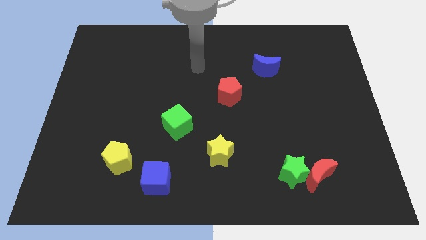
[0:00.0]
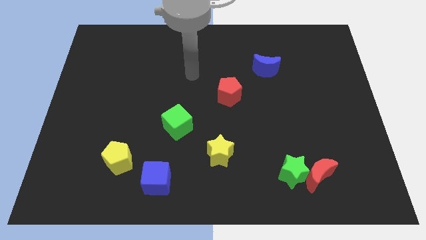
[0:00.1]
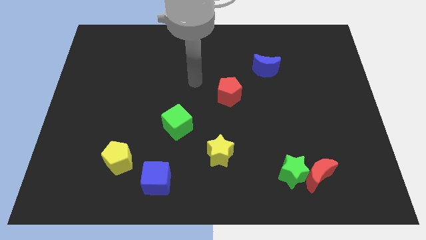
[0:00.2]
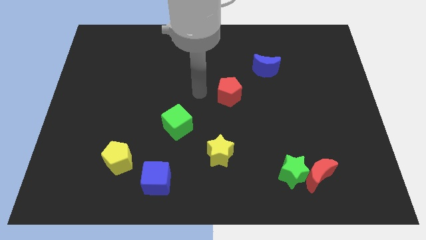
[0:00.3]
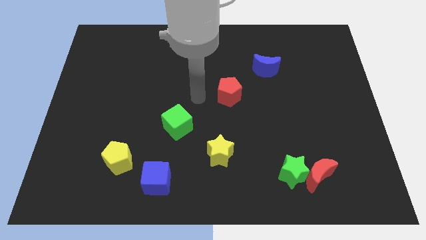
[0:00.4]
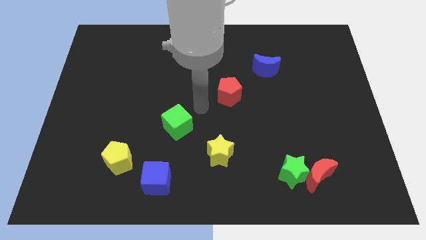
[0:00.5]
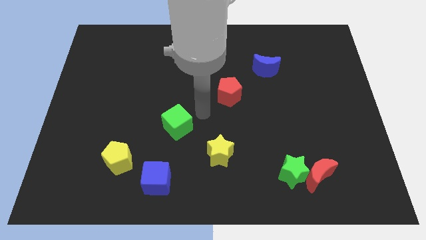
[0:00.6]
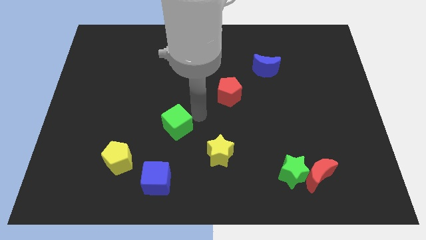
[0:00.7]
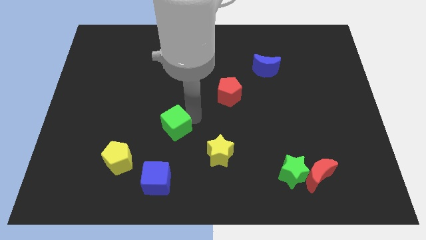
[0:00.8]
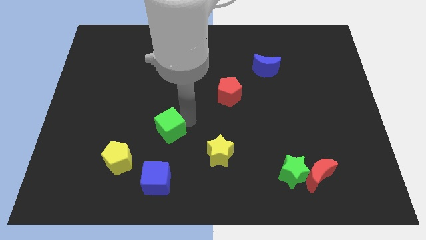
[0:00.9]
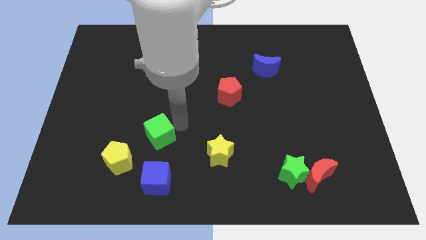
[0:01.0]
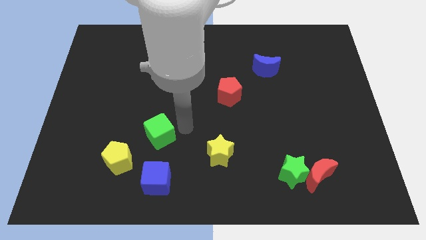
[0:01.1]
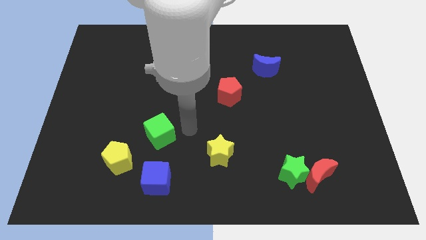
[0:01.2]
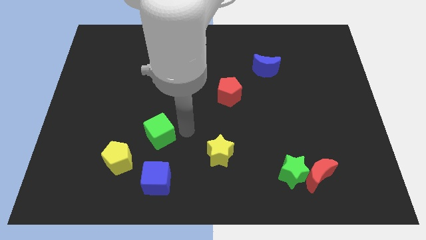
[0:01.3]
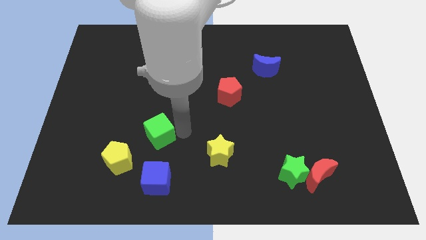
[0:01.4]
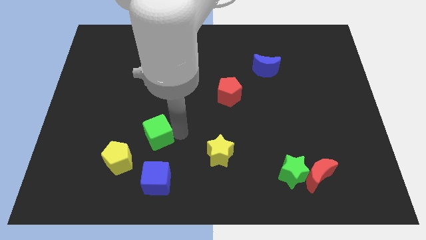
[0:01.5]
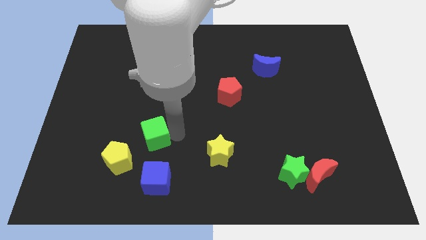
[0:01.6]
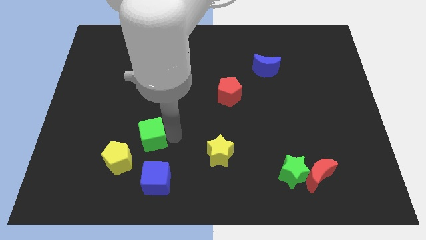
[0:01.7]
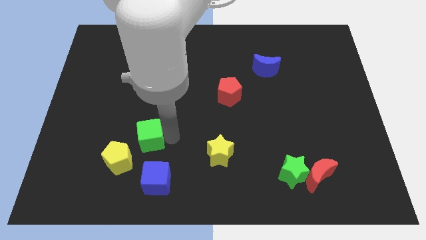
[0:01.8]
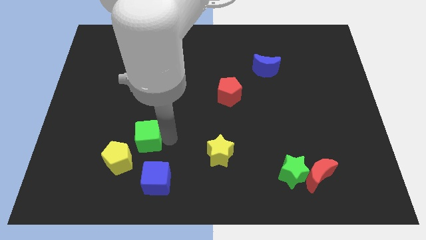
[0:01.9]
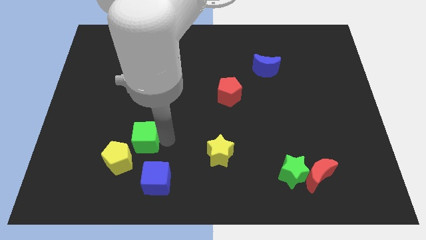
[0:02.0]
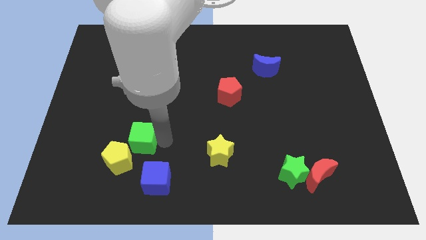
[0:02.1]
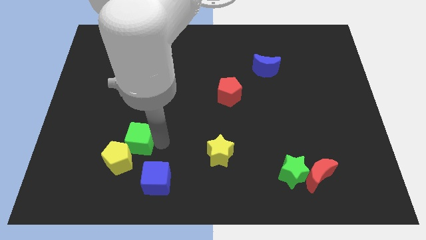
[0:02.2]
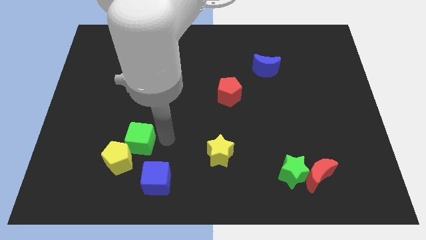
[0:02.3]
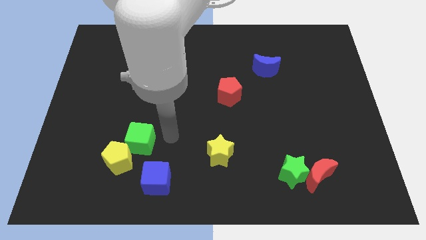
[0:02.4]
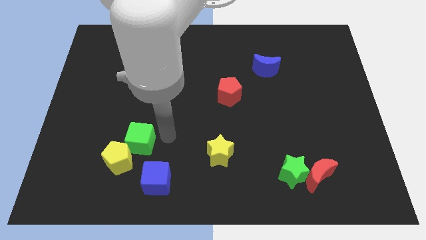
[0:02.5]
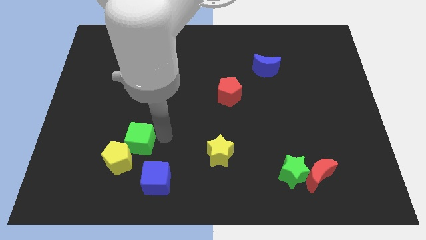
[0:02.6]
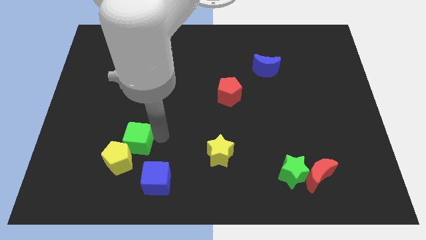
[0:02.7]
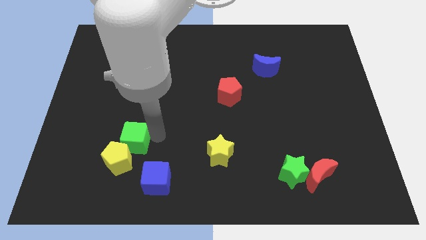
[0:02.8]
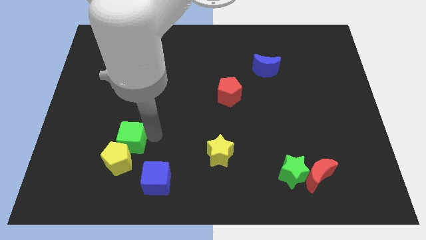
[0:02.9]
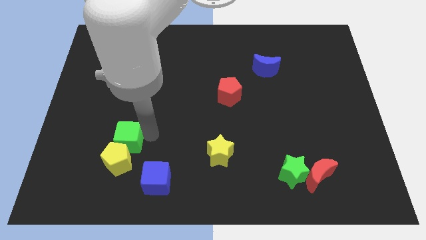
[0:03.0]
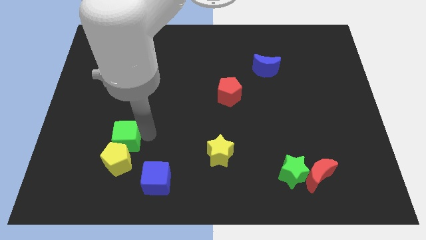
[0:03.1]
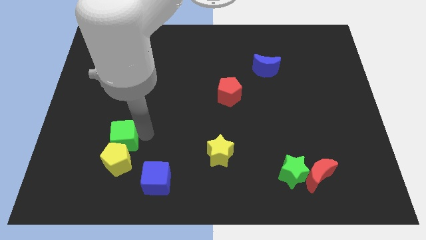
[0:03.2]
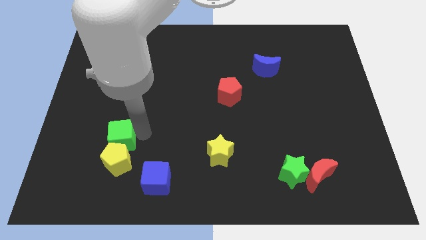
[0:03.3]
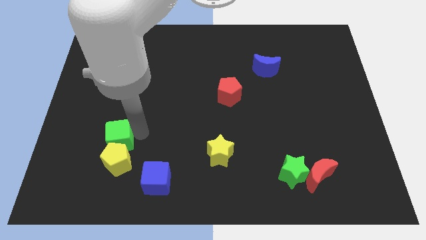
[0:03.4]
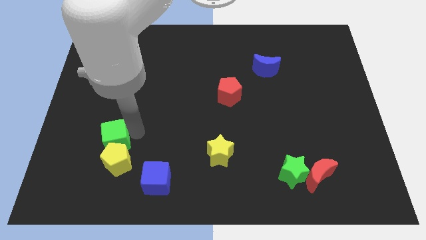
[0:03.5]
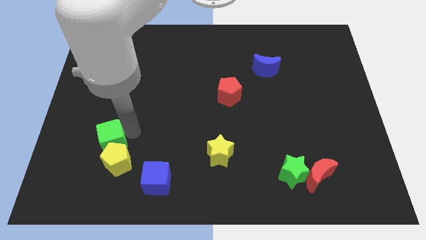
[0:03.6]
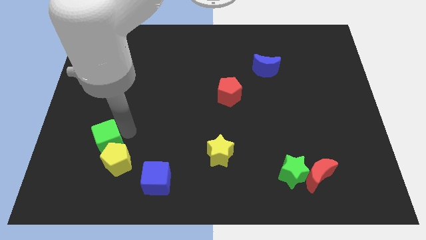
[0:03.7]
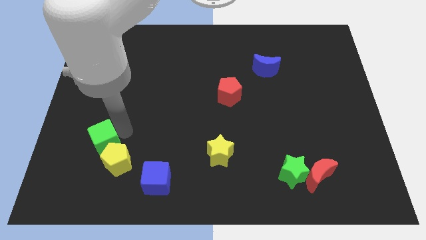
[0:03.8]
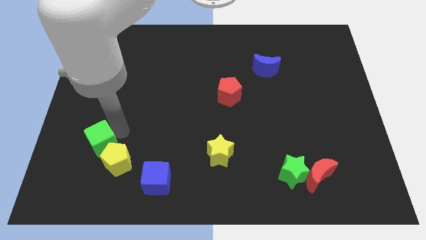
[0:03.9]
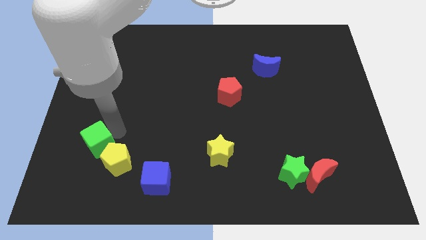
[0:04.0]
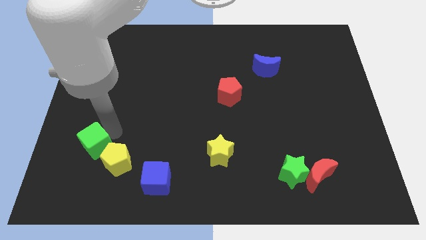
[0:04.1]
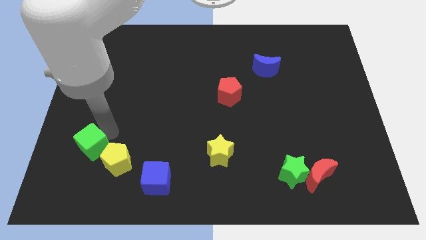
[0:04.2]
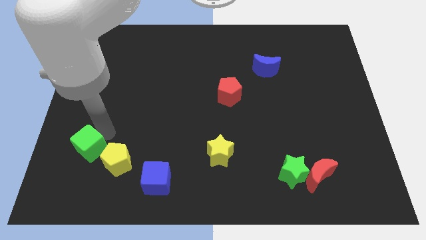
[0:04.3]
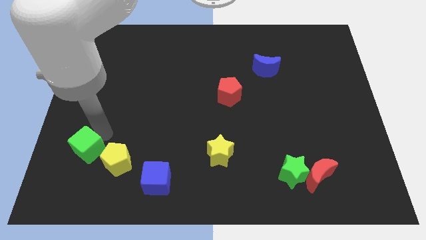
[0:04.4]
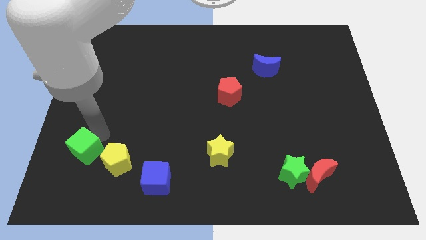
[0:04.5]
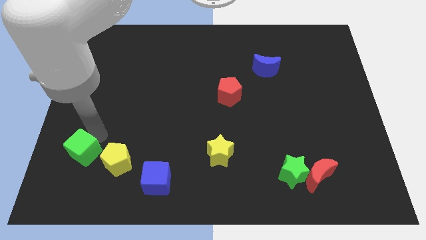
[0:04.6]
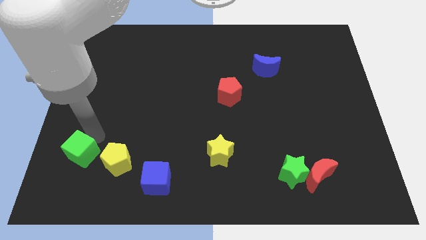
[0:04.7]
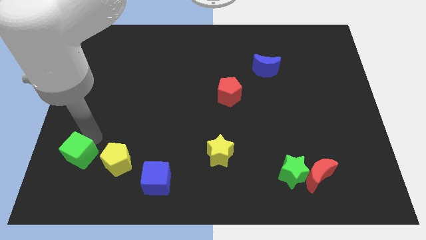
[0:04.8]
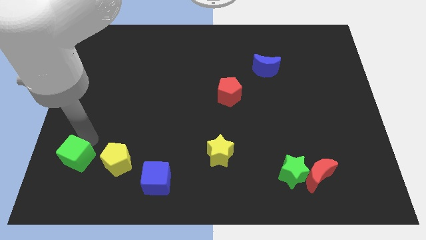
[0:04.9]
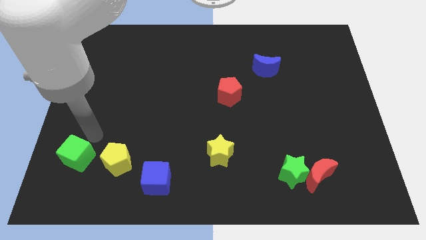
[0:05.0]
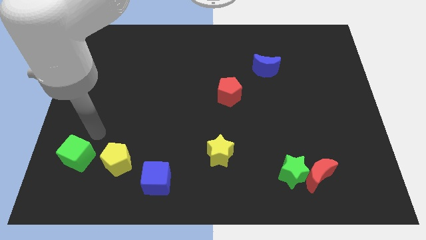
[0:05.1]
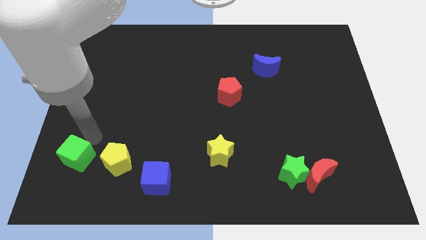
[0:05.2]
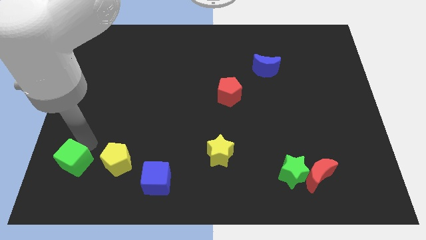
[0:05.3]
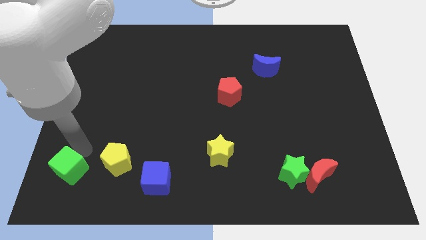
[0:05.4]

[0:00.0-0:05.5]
push the green cube to the lower left corner

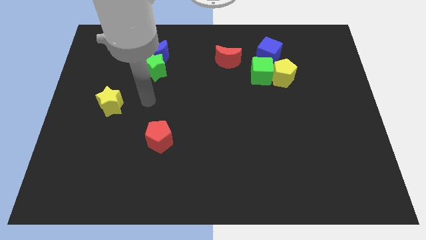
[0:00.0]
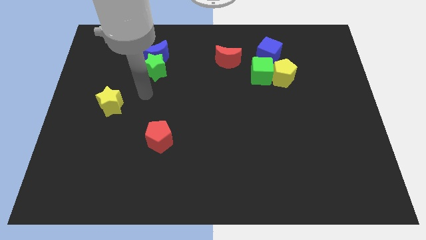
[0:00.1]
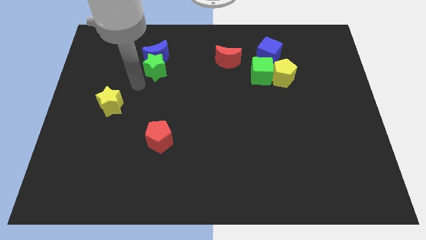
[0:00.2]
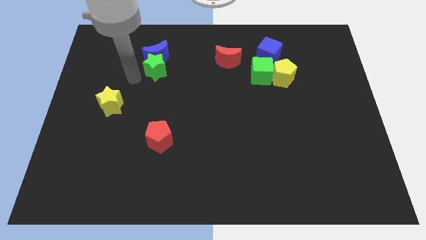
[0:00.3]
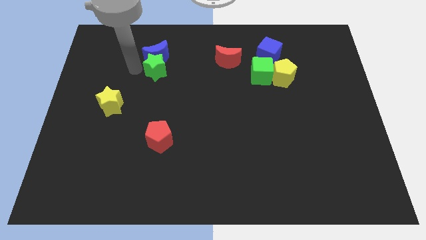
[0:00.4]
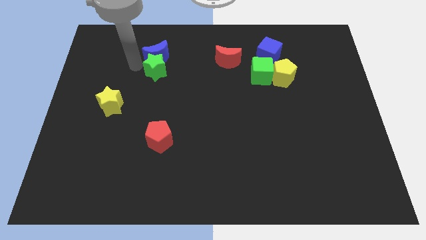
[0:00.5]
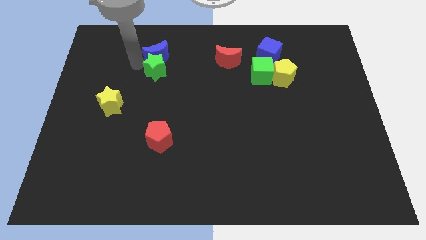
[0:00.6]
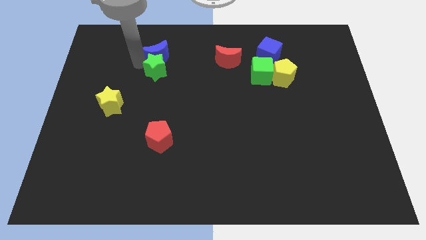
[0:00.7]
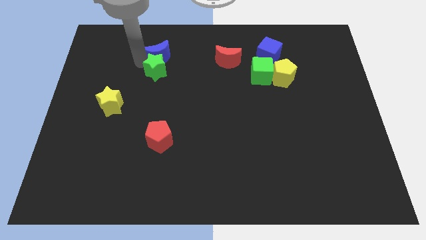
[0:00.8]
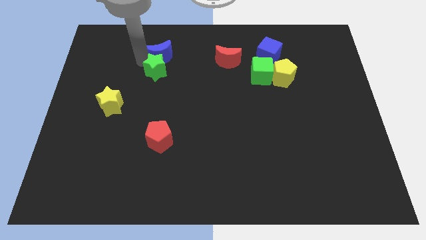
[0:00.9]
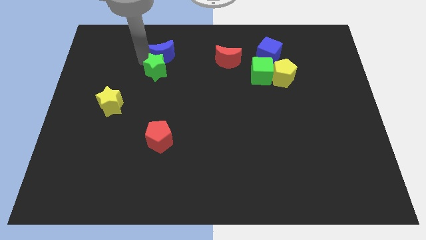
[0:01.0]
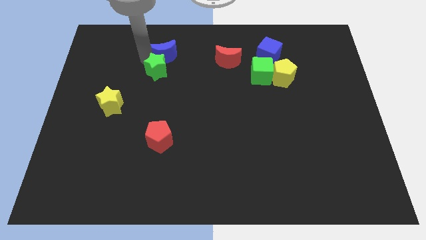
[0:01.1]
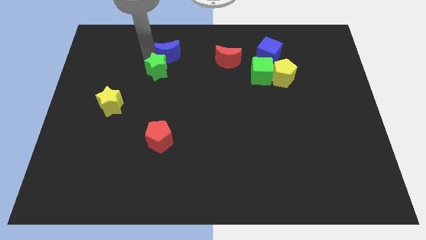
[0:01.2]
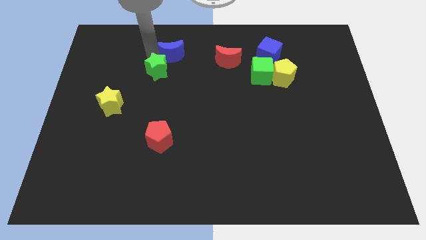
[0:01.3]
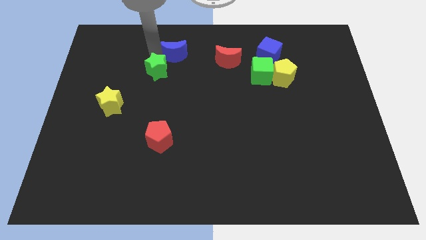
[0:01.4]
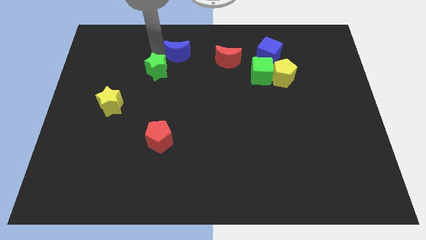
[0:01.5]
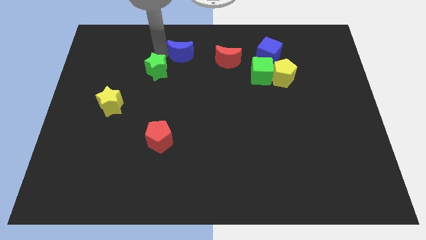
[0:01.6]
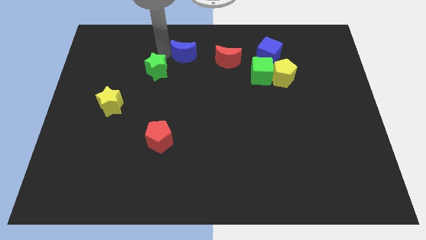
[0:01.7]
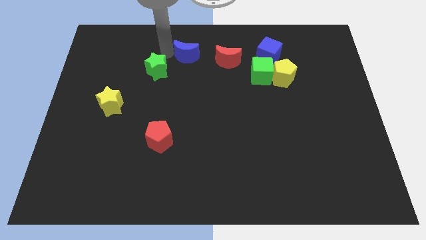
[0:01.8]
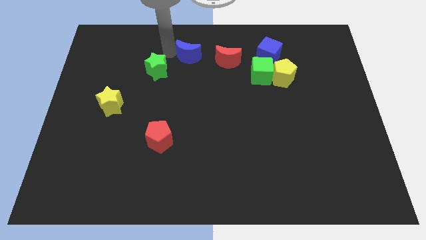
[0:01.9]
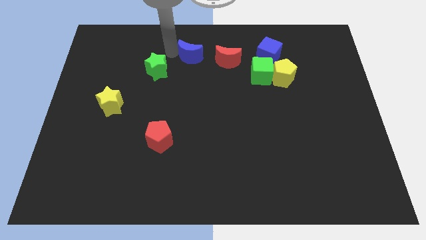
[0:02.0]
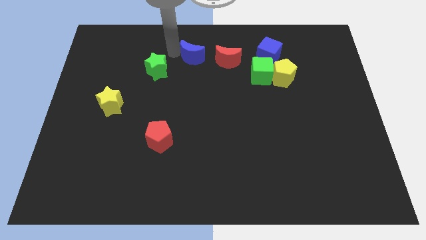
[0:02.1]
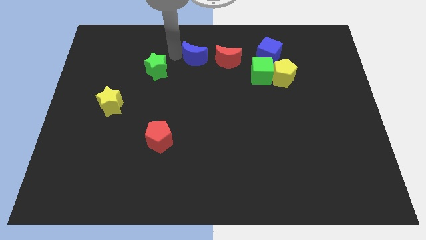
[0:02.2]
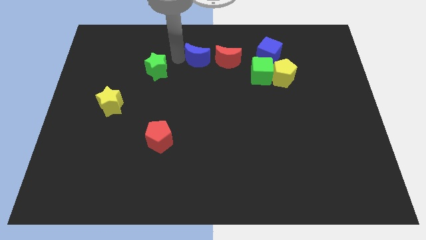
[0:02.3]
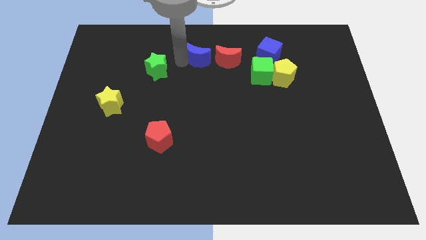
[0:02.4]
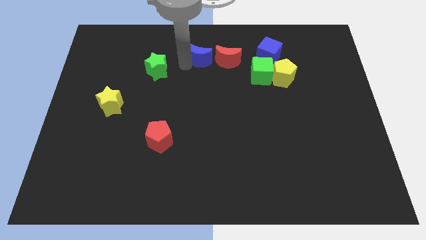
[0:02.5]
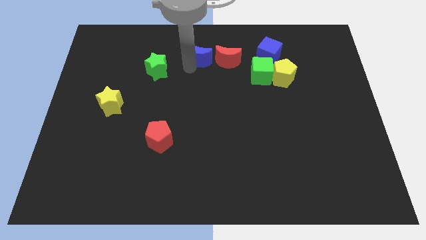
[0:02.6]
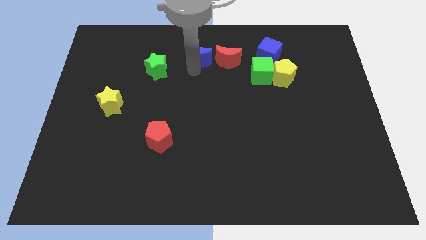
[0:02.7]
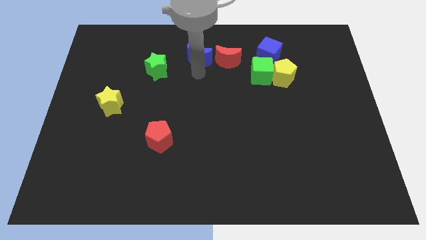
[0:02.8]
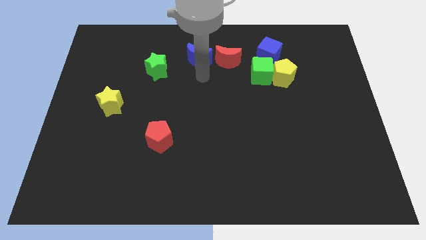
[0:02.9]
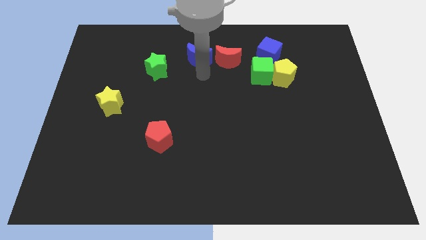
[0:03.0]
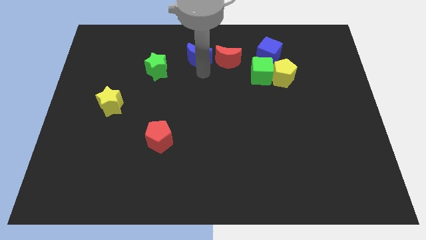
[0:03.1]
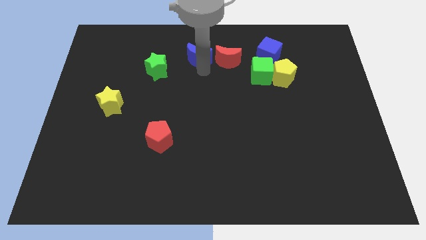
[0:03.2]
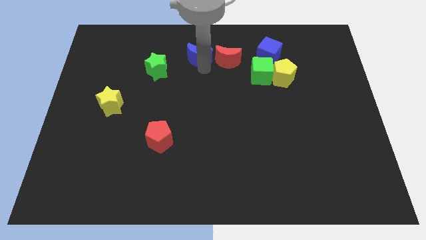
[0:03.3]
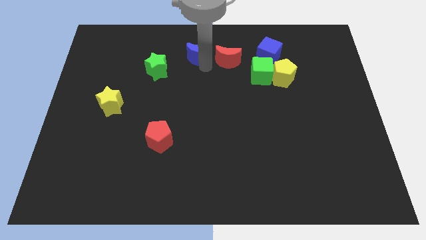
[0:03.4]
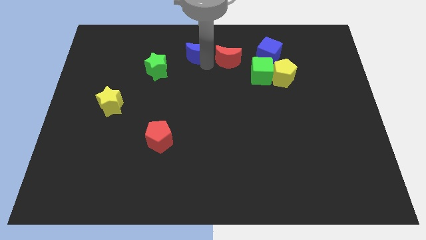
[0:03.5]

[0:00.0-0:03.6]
slide the blue moon to the top side
